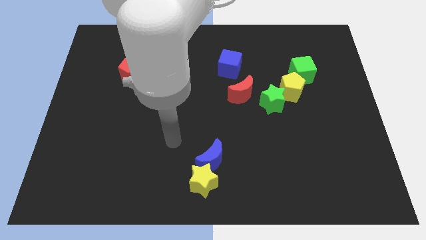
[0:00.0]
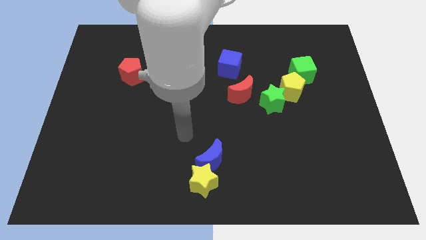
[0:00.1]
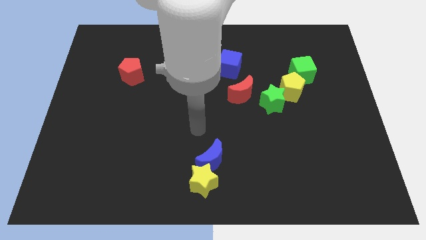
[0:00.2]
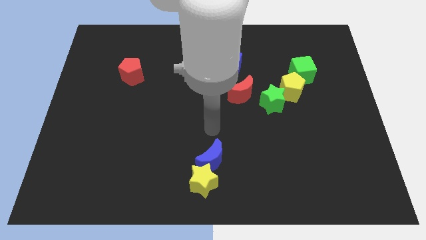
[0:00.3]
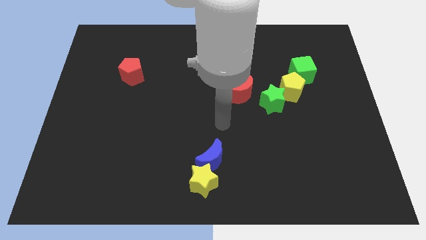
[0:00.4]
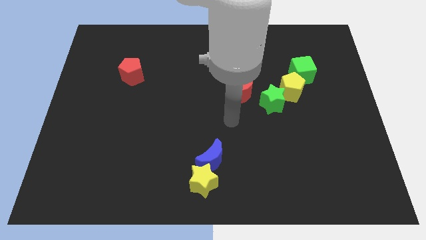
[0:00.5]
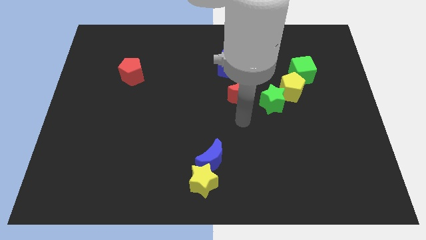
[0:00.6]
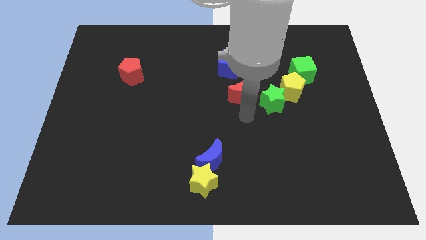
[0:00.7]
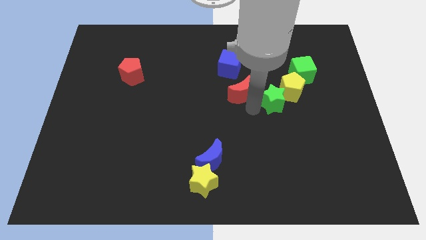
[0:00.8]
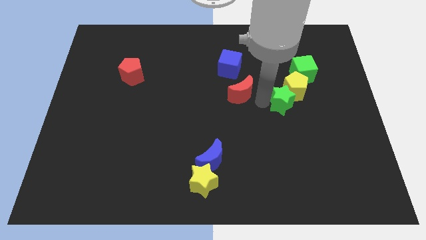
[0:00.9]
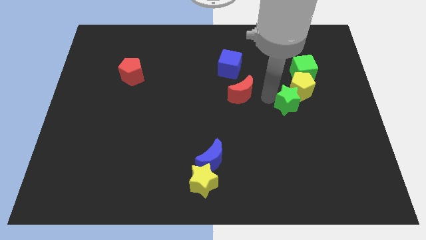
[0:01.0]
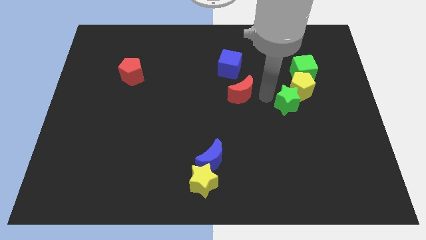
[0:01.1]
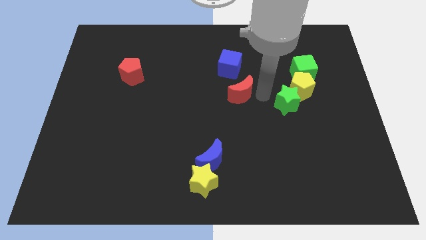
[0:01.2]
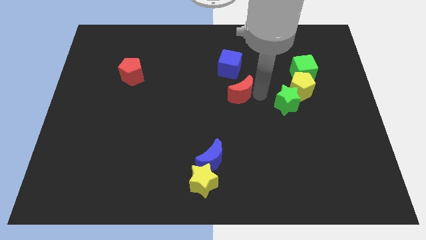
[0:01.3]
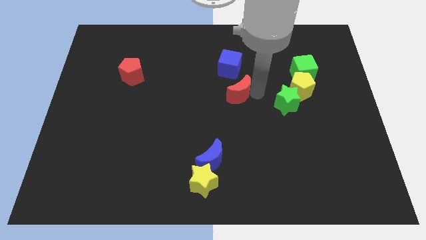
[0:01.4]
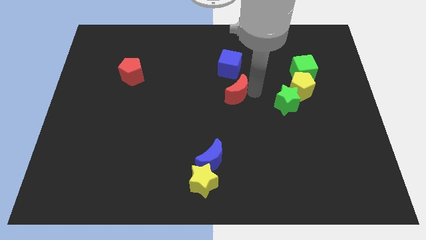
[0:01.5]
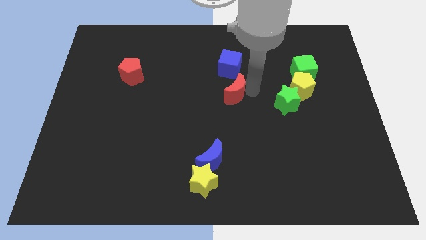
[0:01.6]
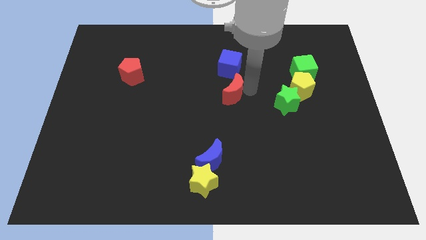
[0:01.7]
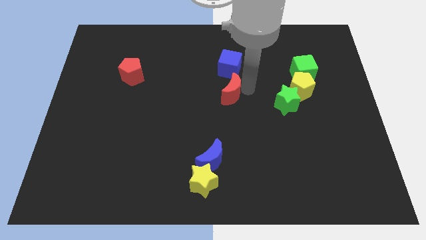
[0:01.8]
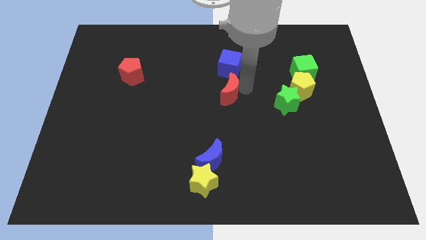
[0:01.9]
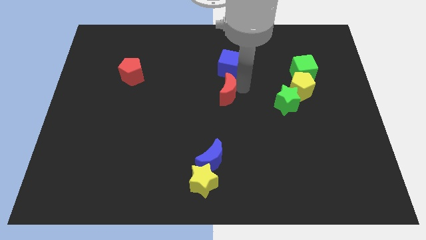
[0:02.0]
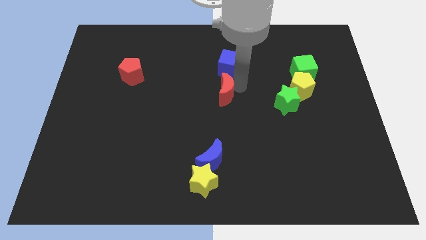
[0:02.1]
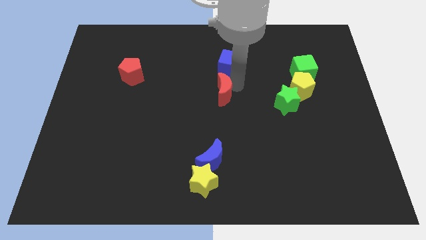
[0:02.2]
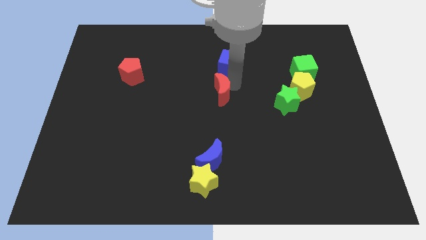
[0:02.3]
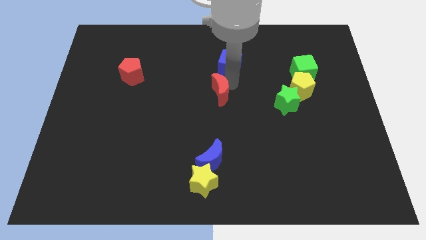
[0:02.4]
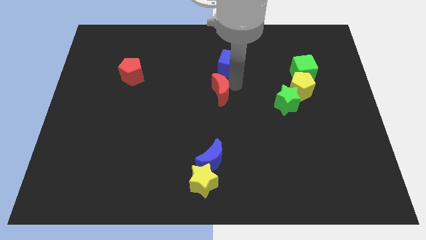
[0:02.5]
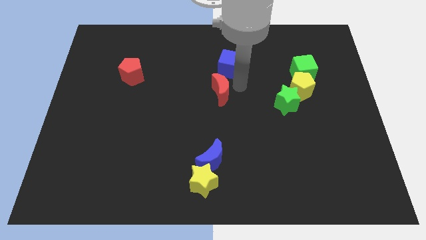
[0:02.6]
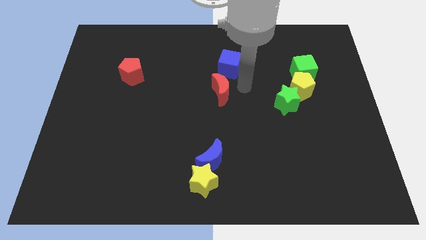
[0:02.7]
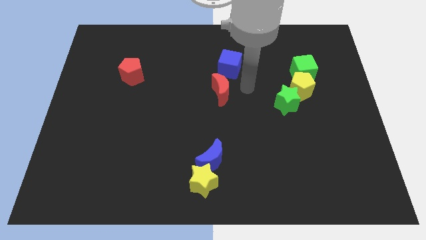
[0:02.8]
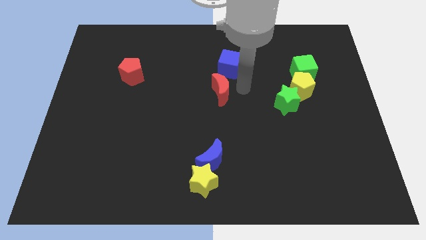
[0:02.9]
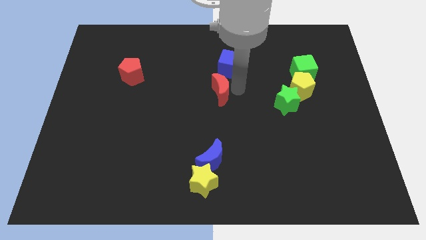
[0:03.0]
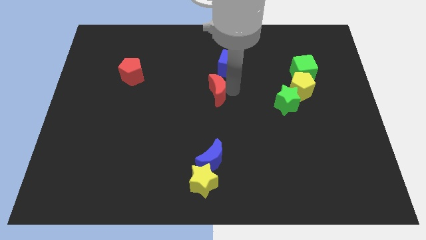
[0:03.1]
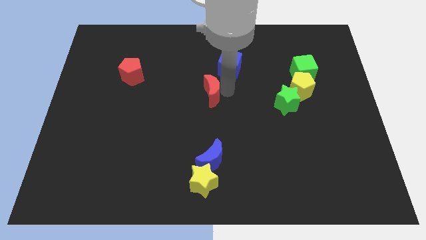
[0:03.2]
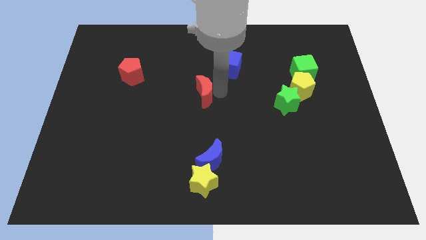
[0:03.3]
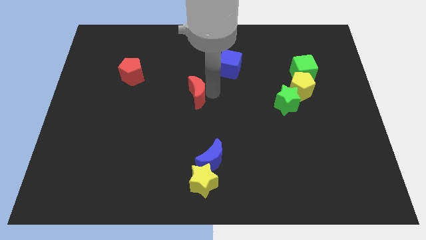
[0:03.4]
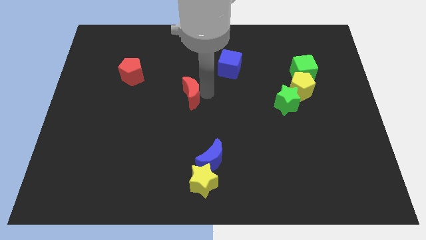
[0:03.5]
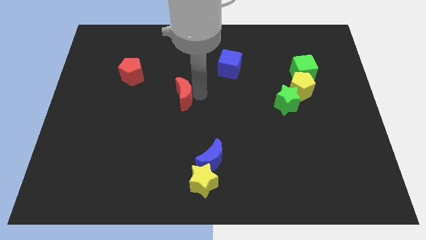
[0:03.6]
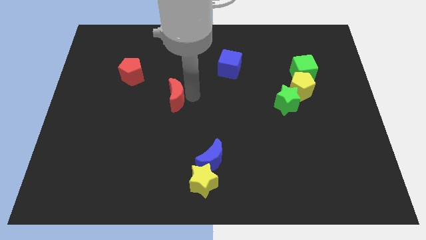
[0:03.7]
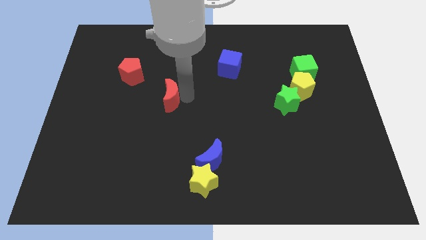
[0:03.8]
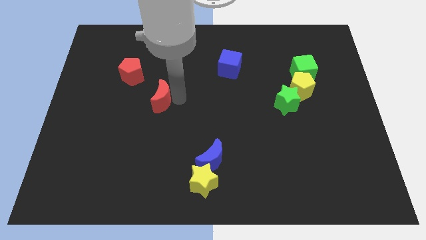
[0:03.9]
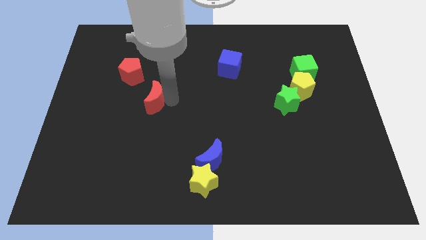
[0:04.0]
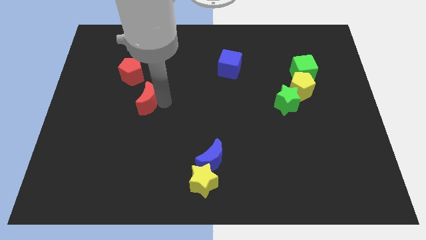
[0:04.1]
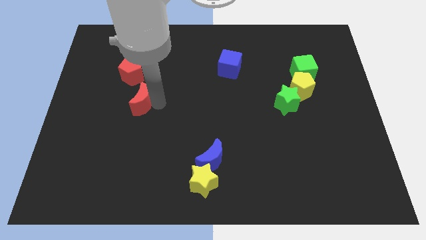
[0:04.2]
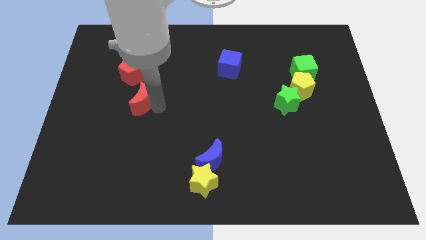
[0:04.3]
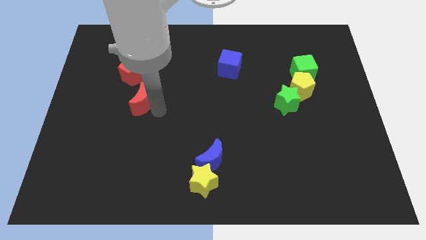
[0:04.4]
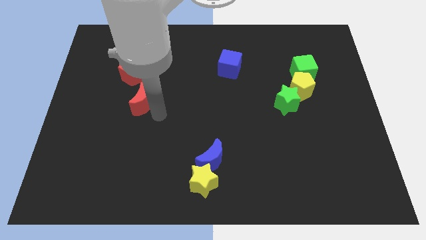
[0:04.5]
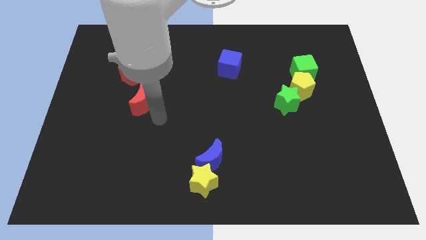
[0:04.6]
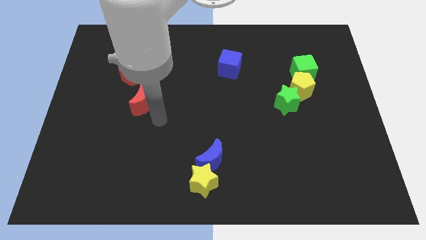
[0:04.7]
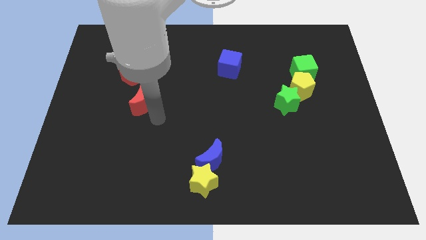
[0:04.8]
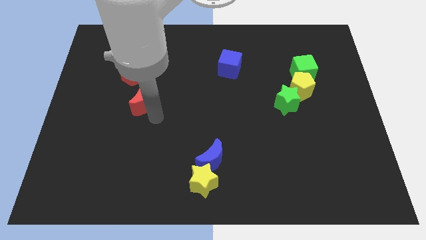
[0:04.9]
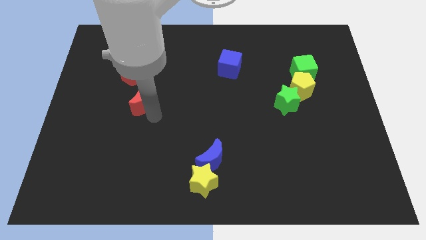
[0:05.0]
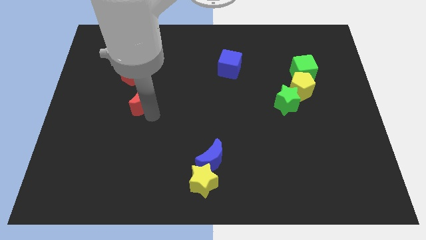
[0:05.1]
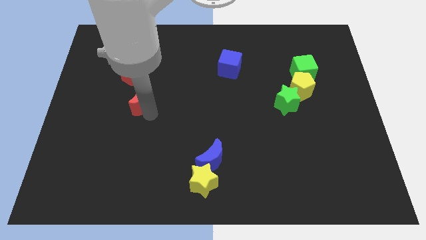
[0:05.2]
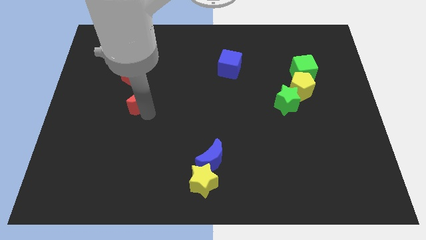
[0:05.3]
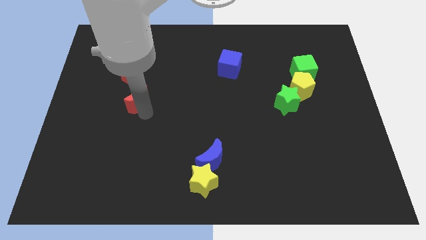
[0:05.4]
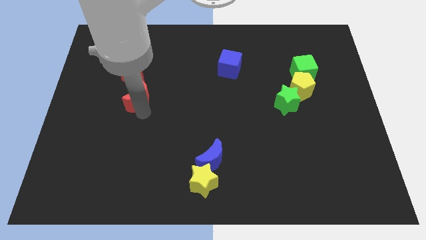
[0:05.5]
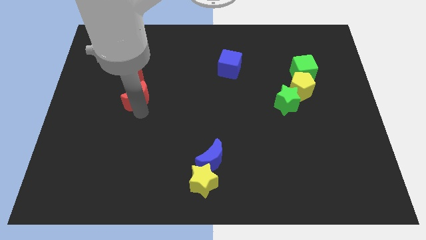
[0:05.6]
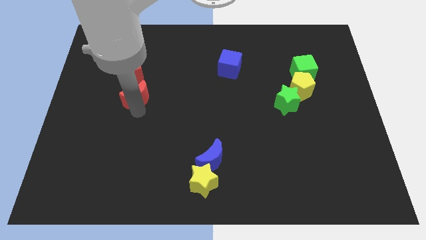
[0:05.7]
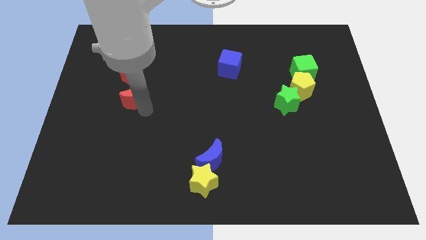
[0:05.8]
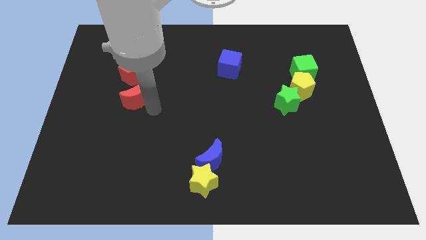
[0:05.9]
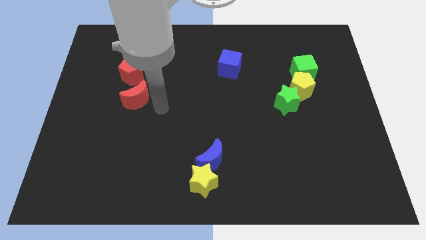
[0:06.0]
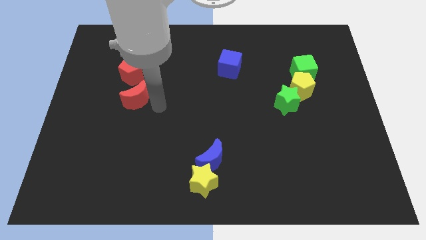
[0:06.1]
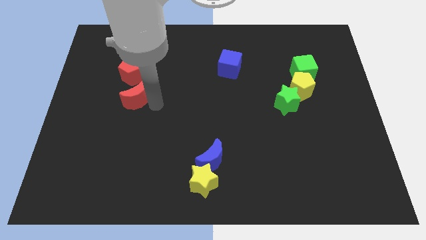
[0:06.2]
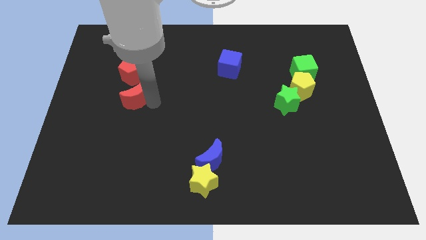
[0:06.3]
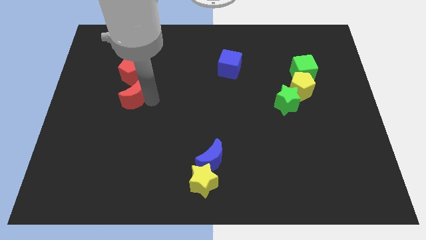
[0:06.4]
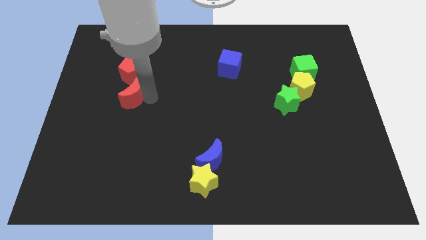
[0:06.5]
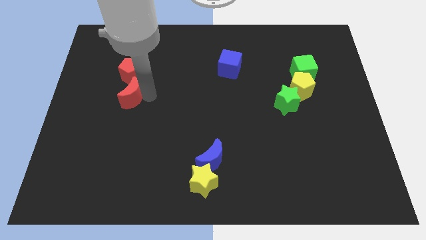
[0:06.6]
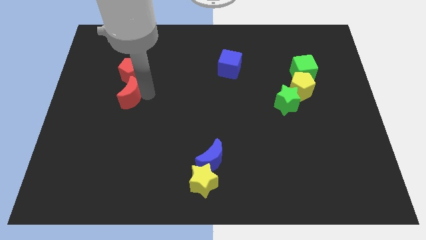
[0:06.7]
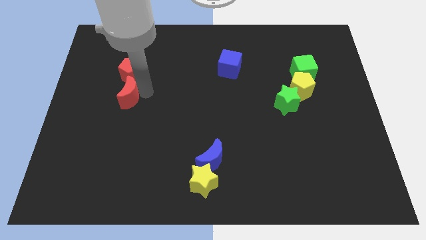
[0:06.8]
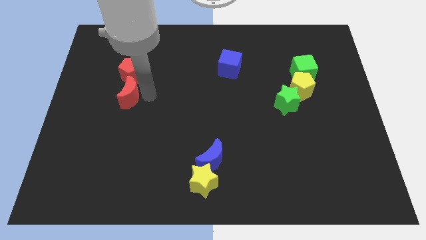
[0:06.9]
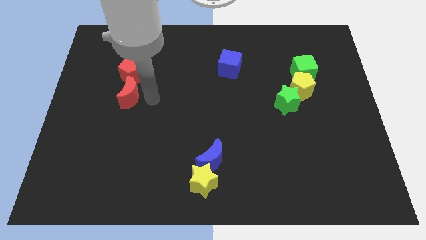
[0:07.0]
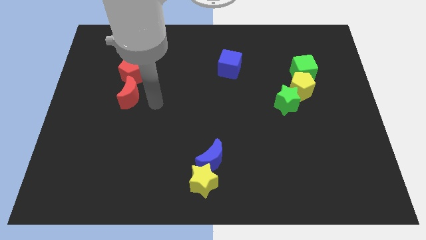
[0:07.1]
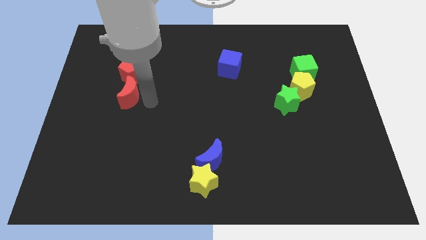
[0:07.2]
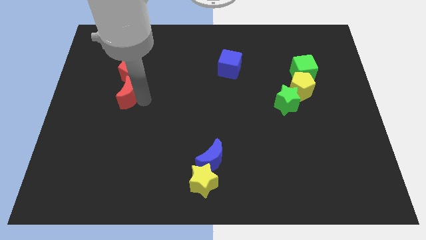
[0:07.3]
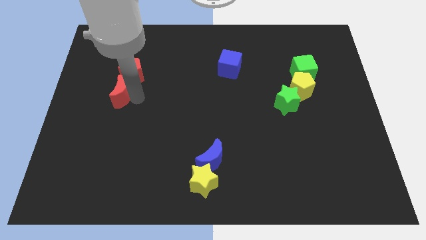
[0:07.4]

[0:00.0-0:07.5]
slide the red moon to the bottom left of the red pentagon
